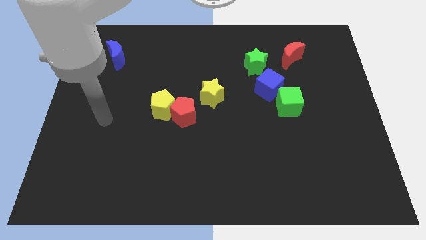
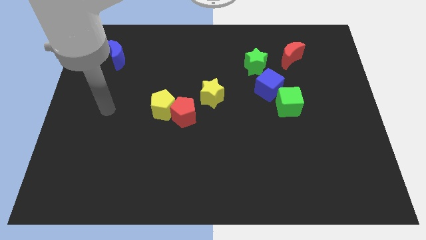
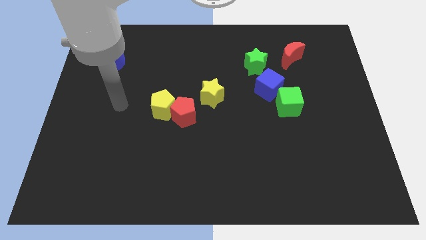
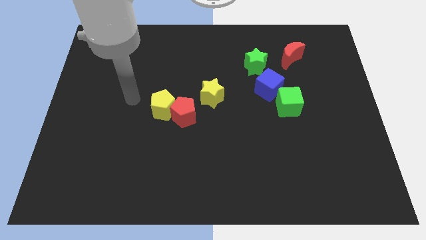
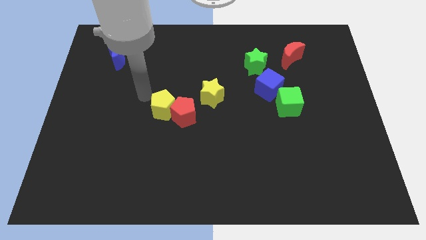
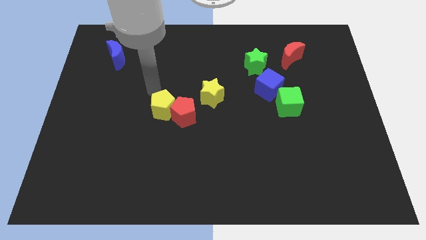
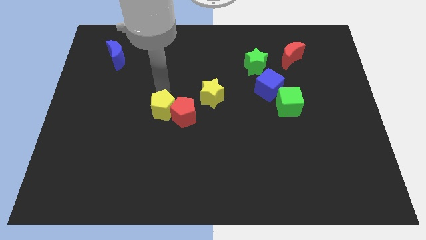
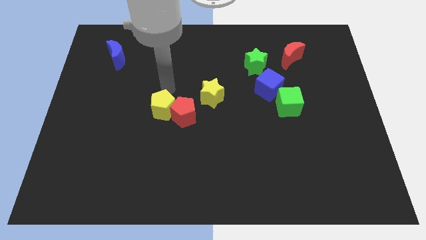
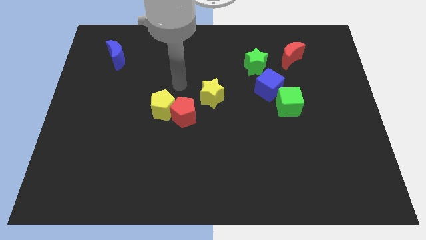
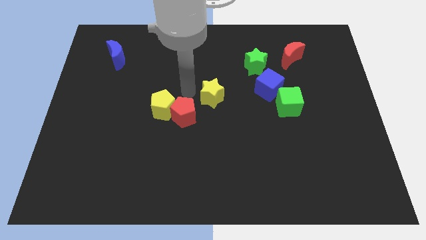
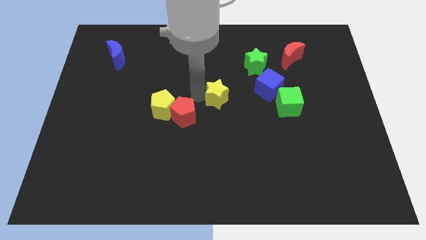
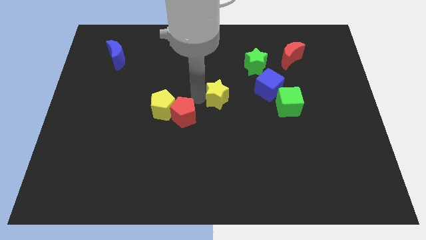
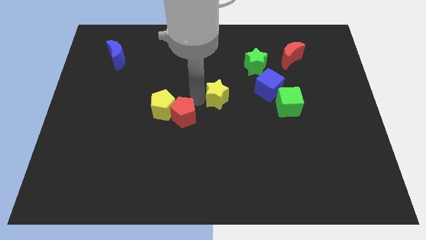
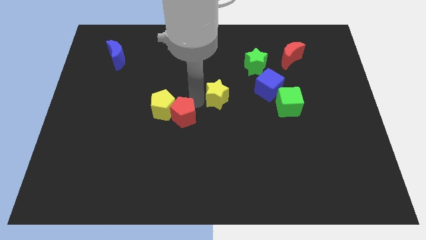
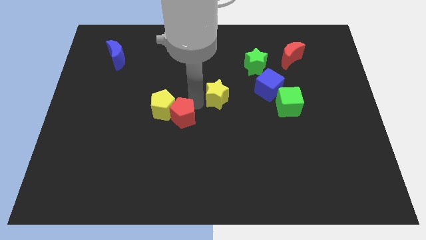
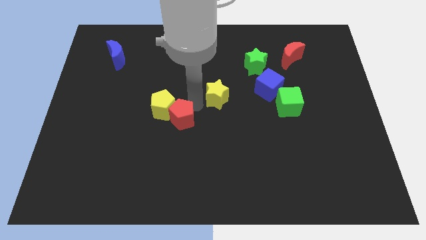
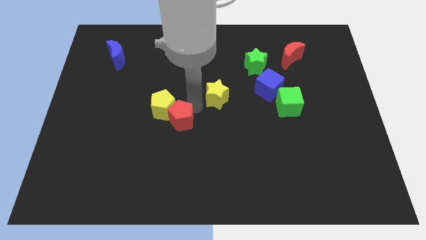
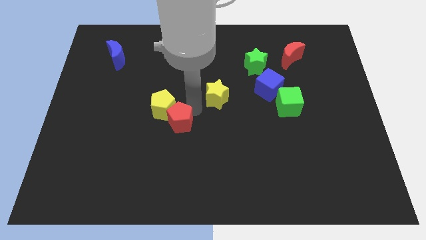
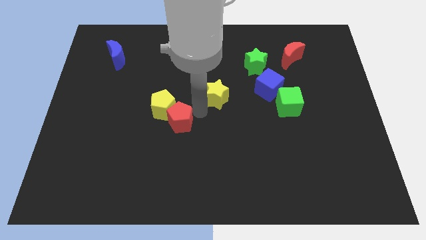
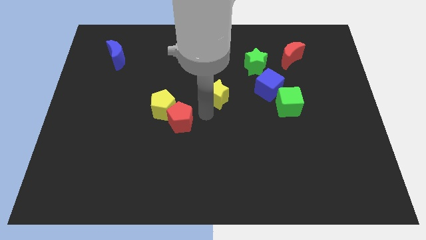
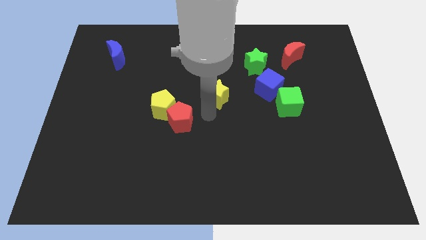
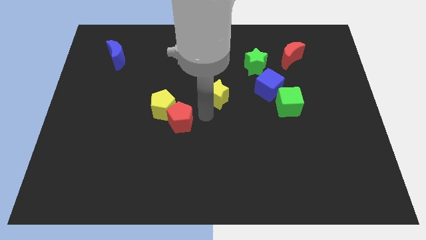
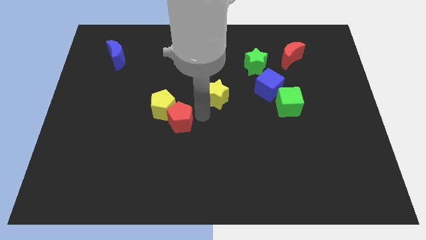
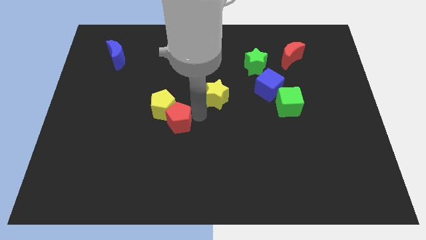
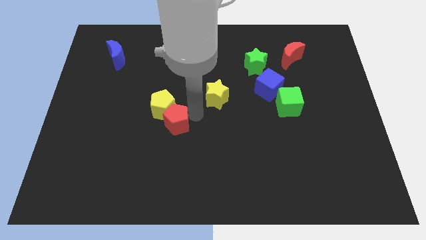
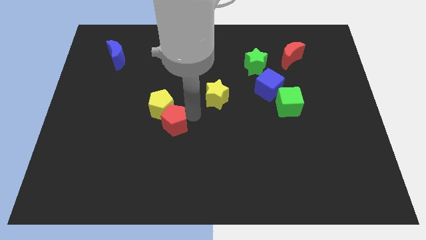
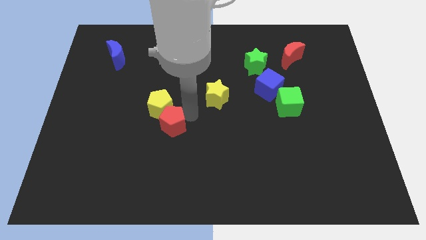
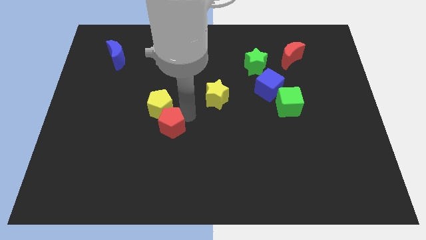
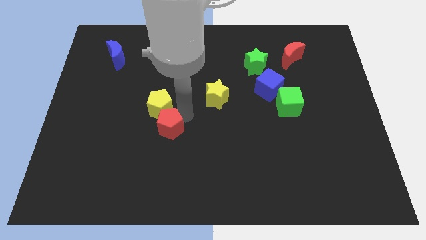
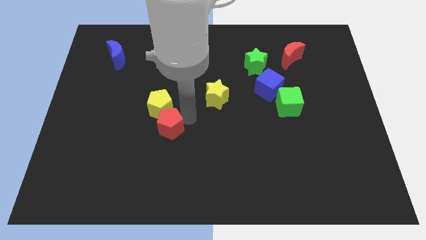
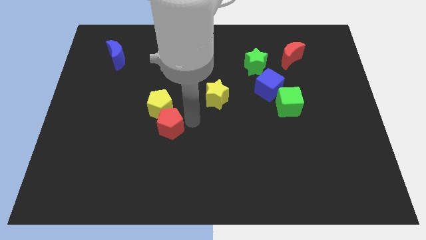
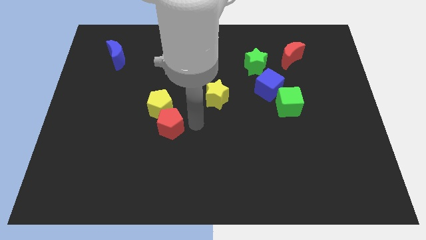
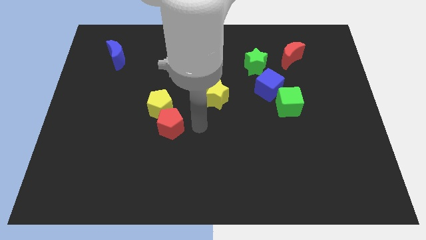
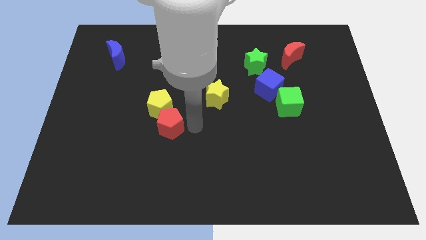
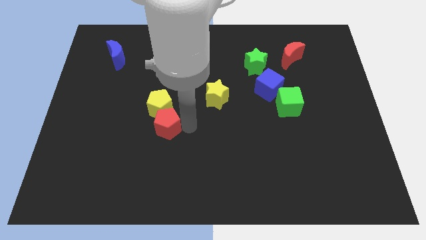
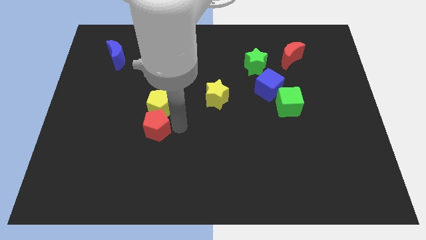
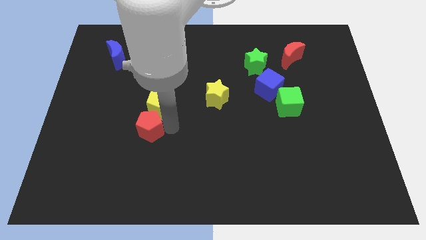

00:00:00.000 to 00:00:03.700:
move the red pentagon a little to the left

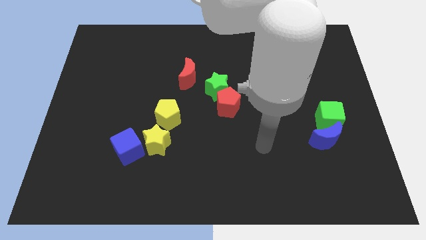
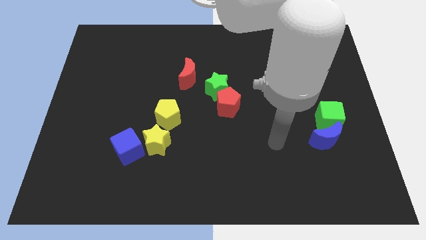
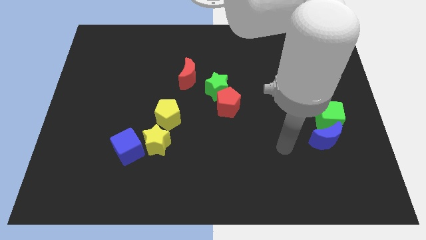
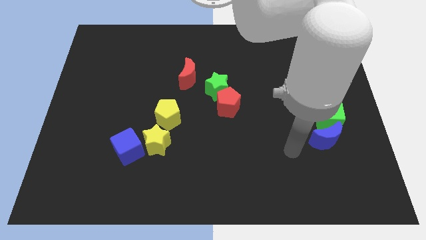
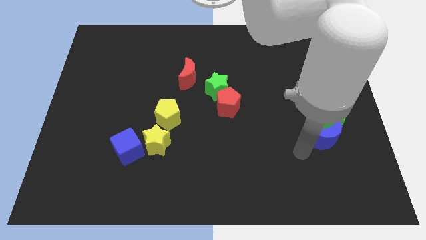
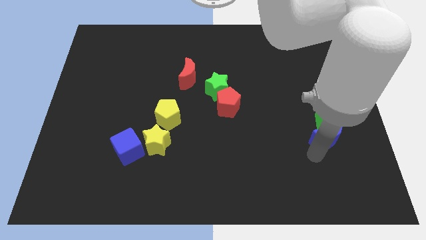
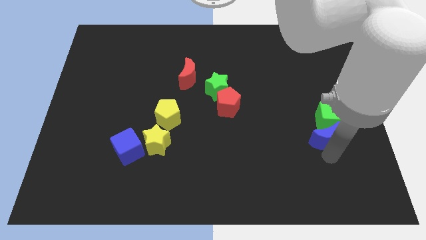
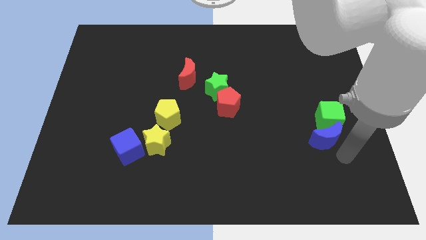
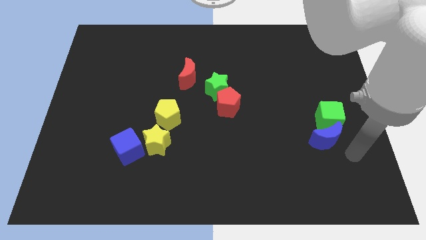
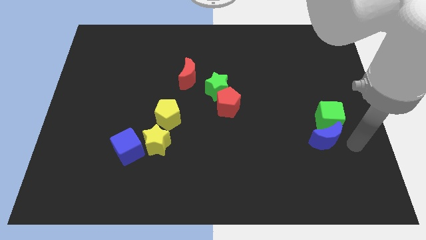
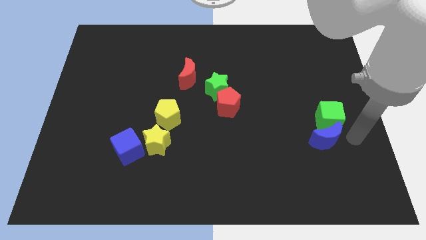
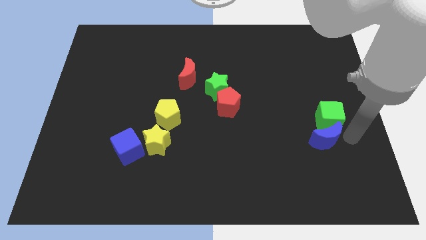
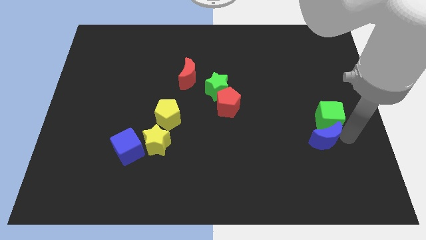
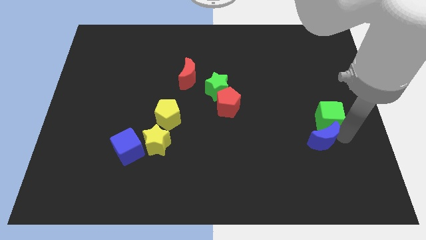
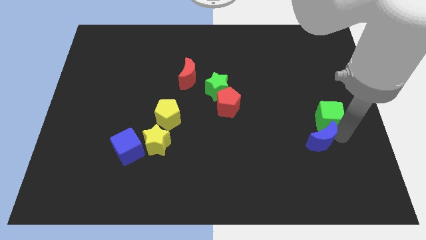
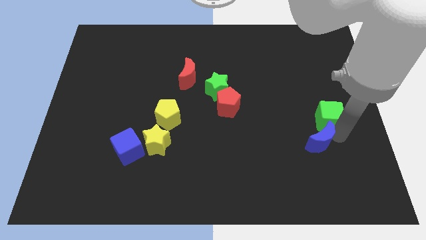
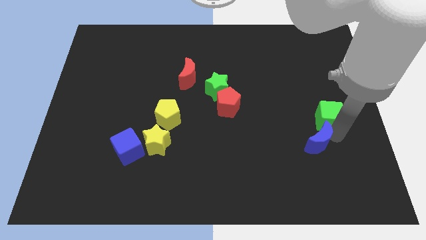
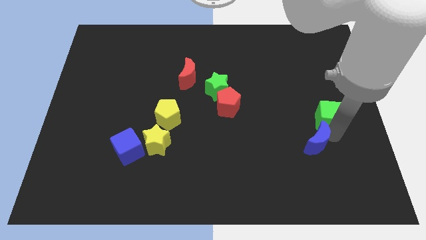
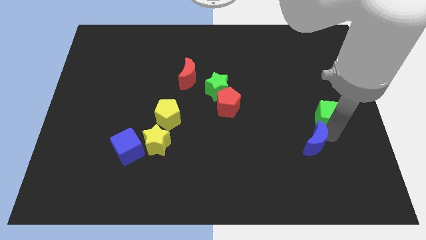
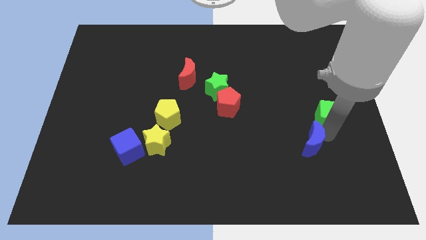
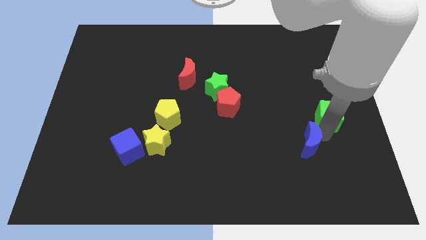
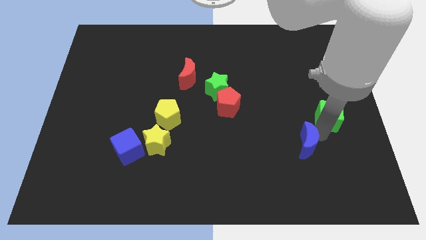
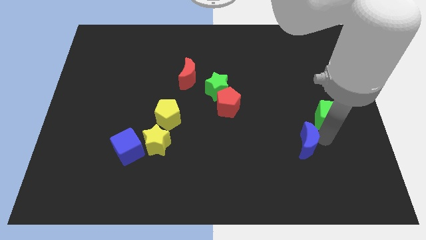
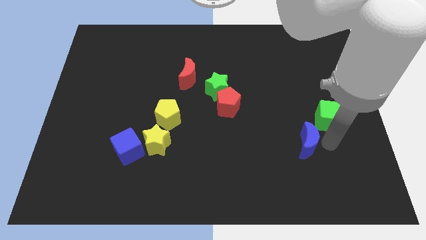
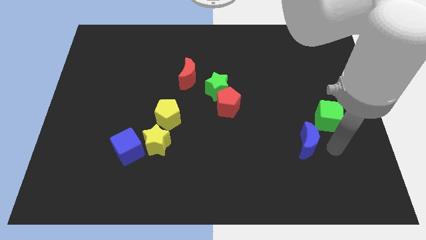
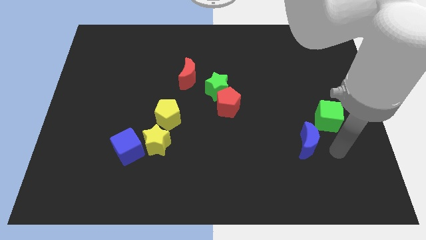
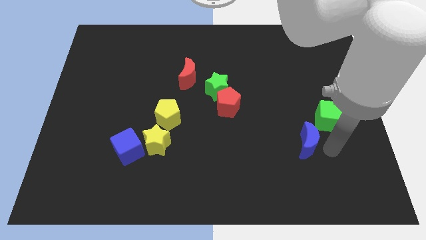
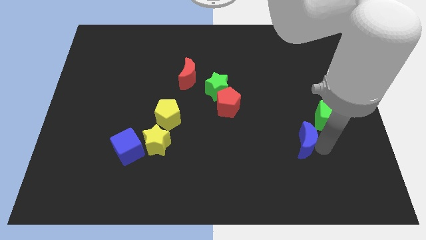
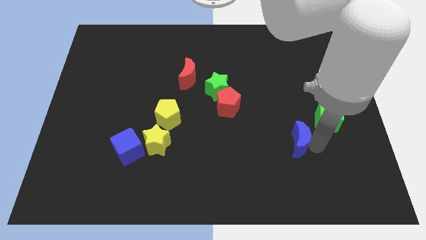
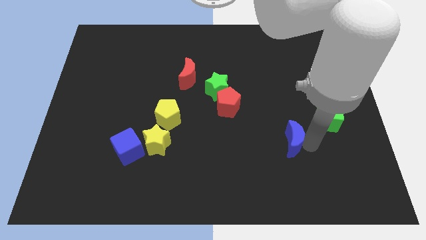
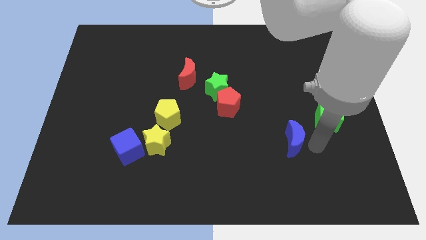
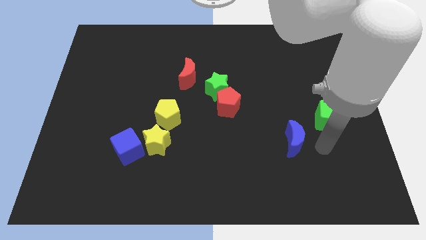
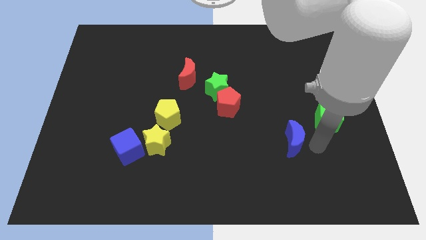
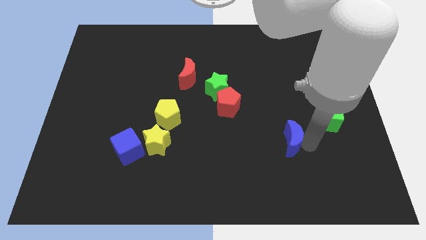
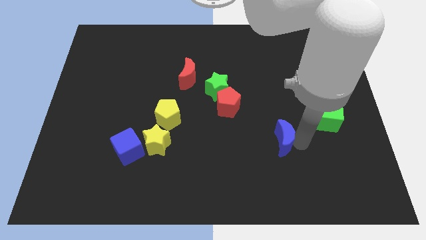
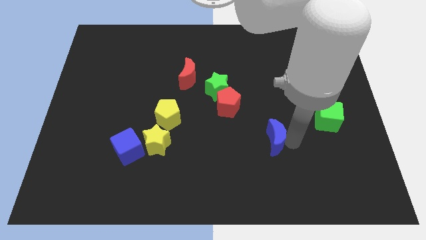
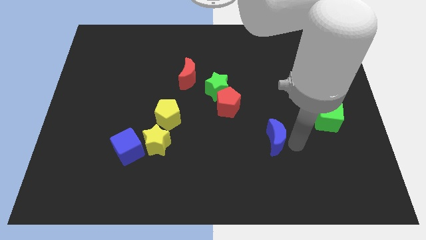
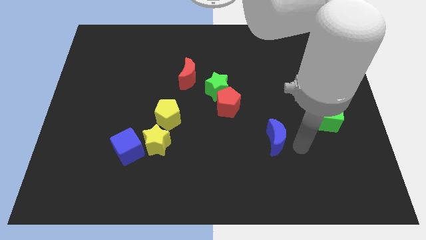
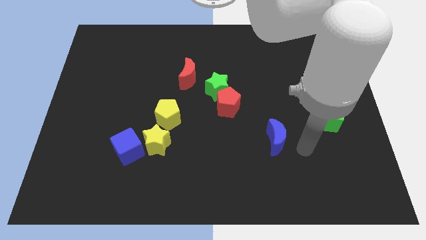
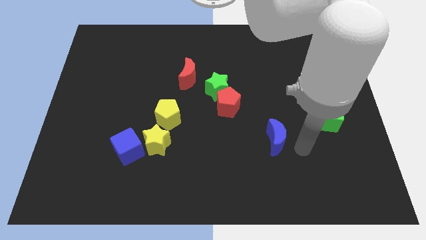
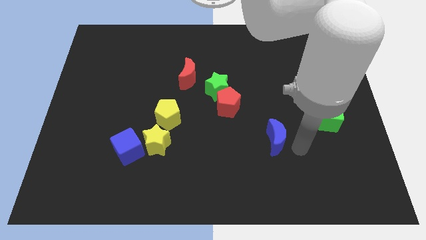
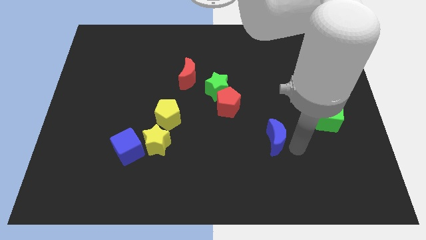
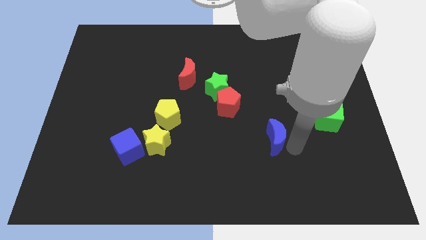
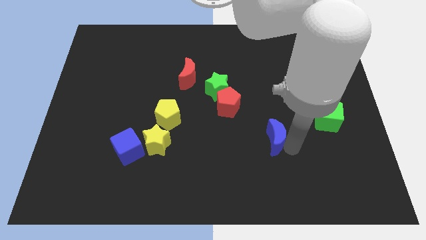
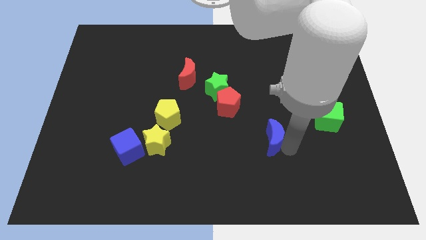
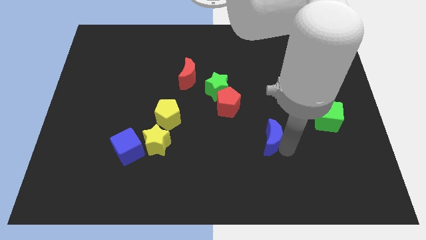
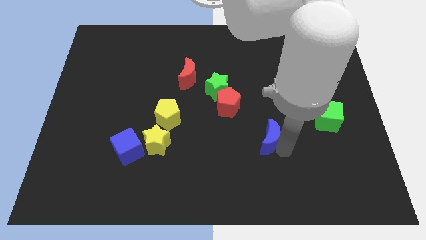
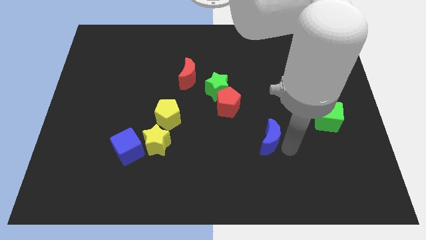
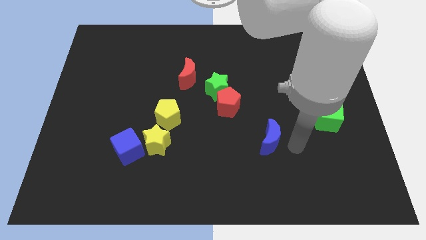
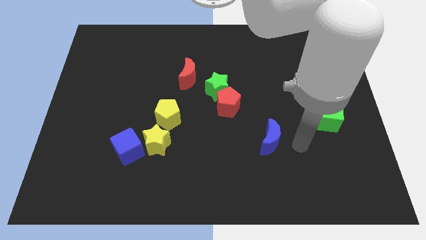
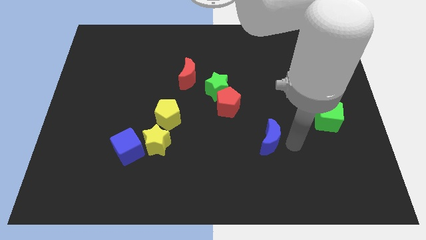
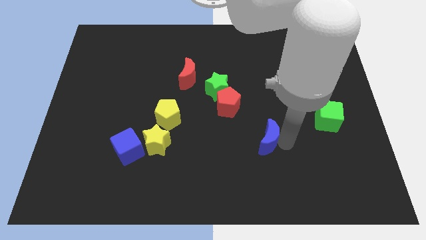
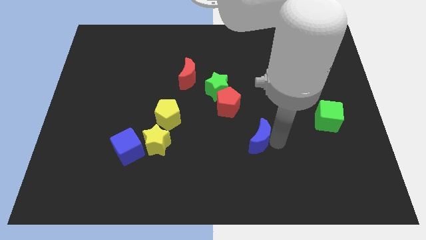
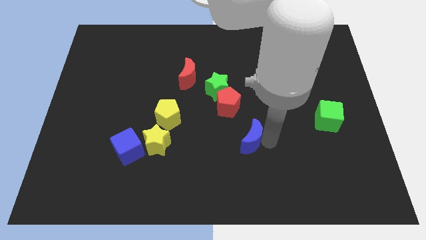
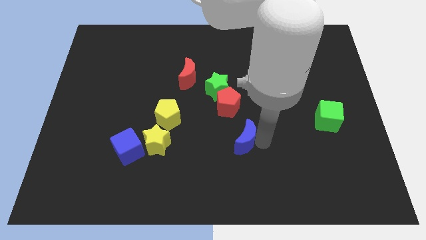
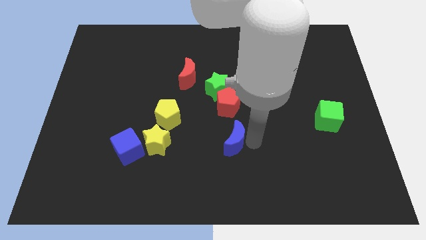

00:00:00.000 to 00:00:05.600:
slide the blue moon to the left
